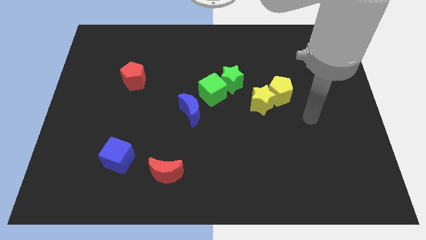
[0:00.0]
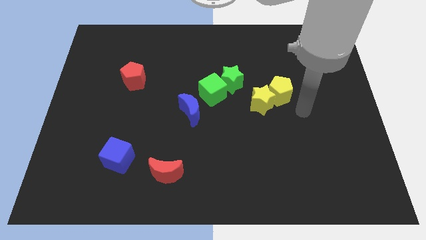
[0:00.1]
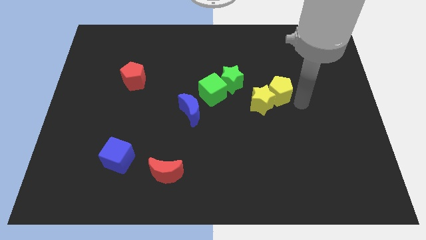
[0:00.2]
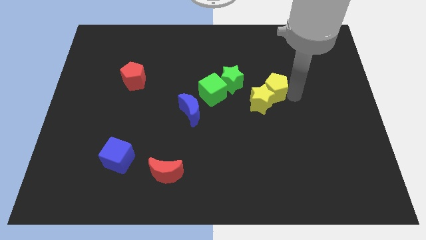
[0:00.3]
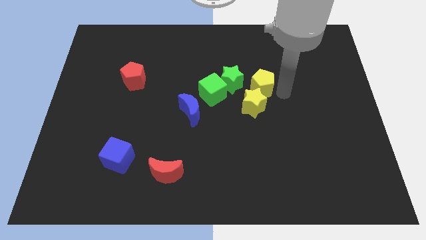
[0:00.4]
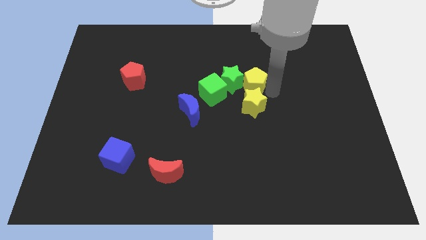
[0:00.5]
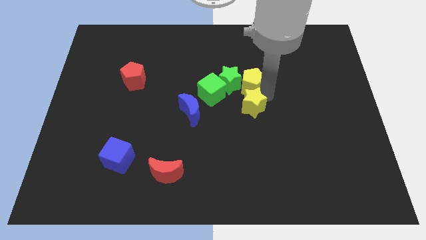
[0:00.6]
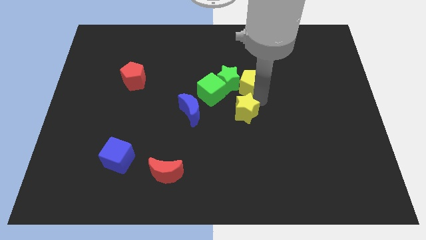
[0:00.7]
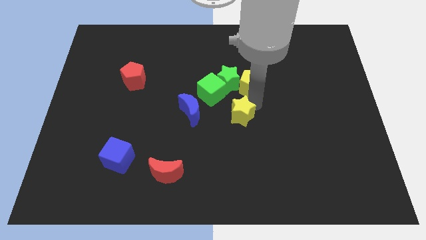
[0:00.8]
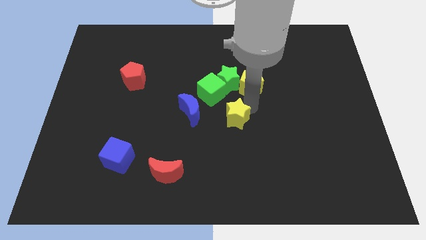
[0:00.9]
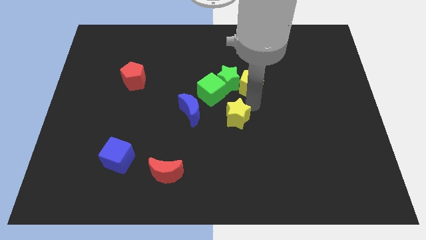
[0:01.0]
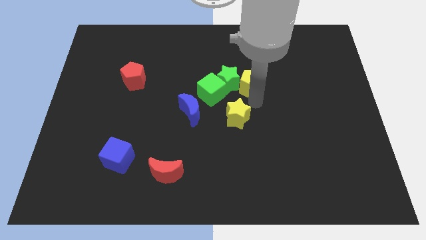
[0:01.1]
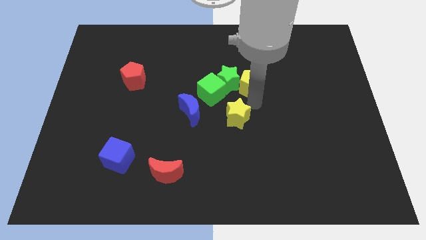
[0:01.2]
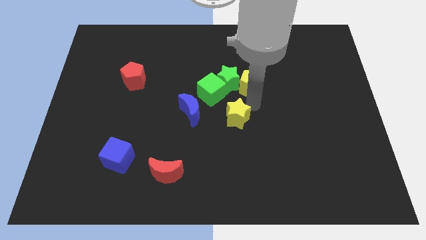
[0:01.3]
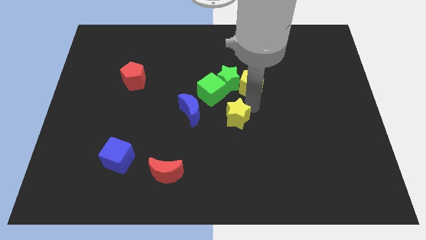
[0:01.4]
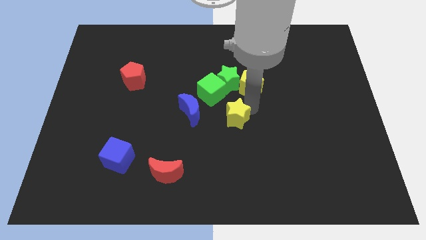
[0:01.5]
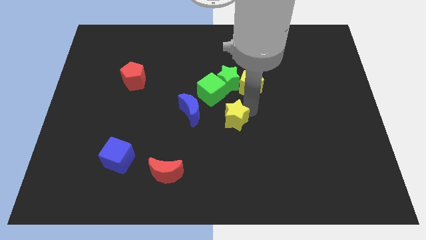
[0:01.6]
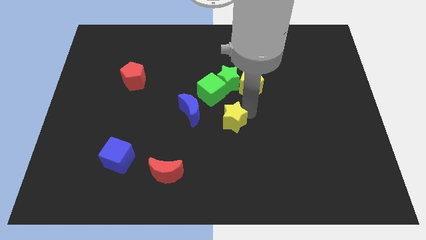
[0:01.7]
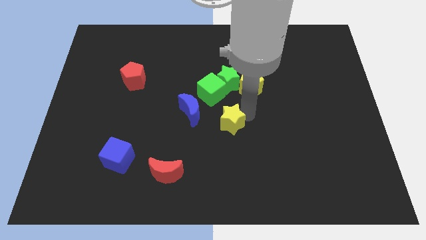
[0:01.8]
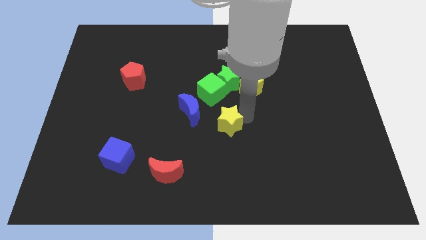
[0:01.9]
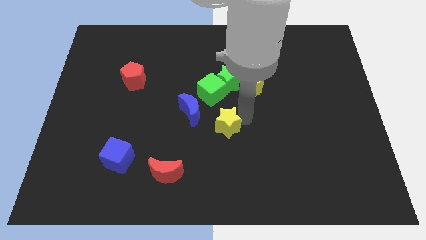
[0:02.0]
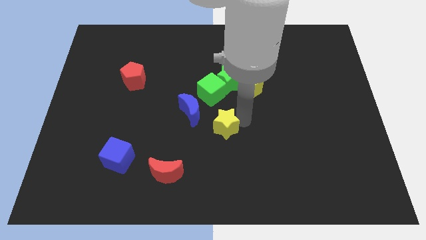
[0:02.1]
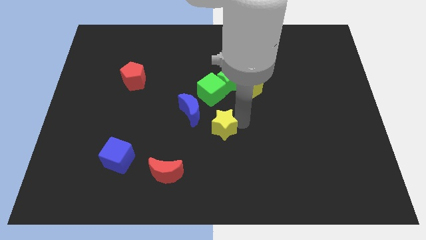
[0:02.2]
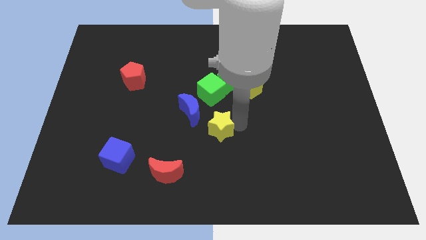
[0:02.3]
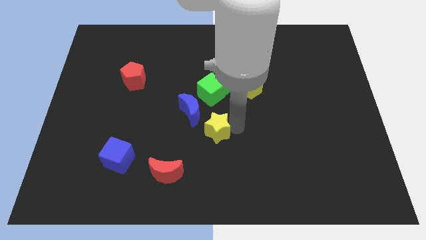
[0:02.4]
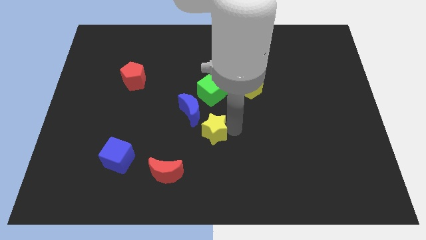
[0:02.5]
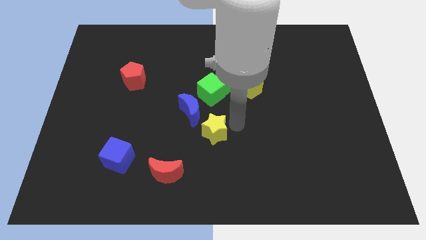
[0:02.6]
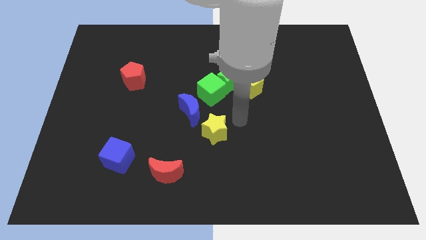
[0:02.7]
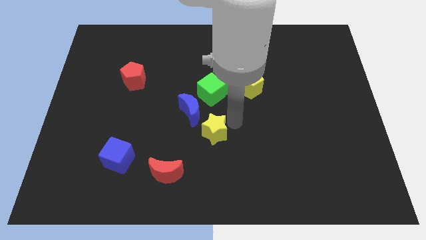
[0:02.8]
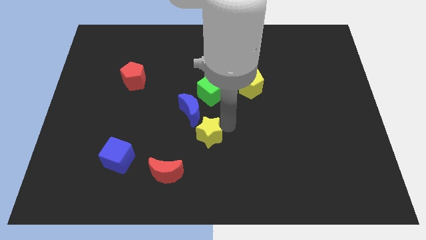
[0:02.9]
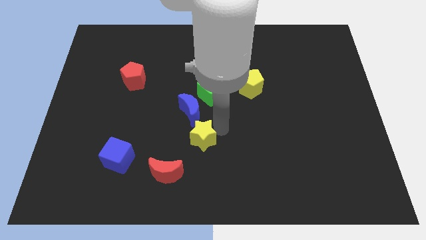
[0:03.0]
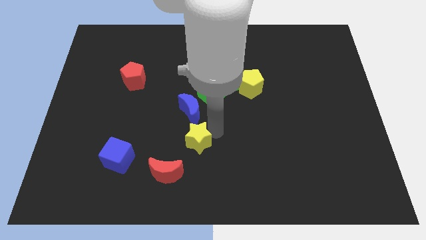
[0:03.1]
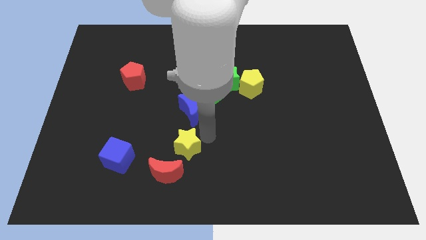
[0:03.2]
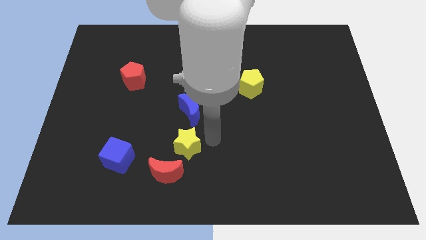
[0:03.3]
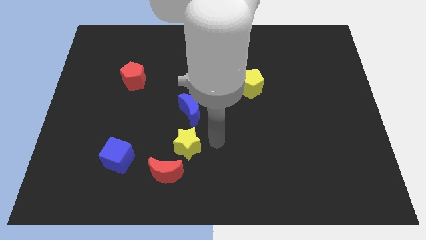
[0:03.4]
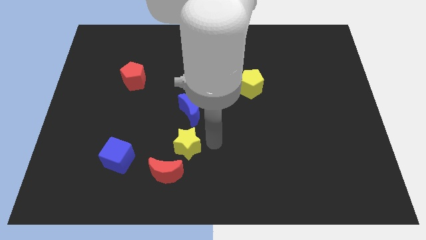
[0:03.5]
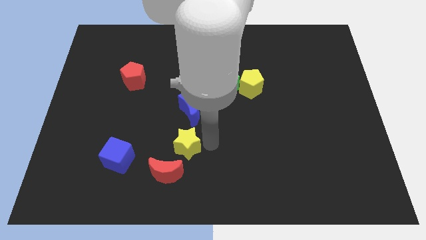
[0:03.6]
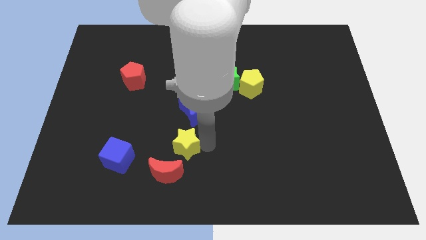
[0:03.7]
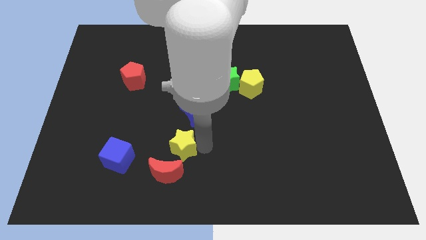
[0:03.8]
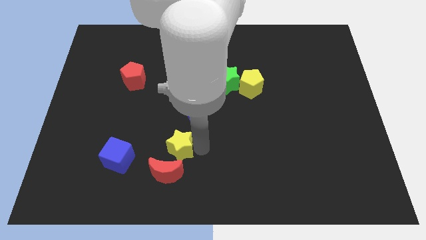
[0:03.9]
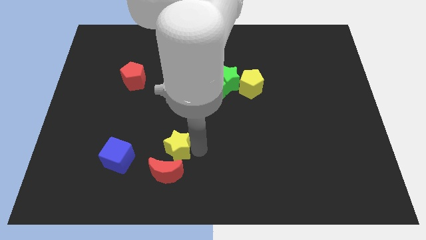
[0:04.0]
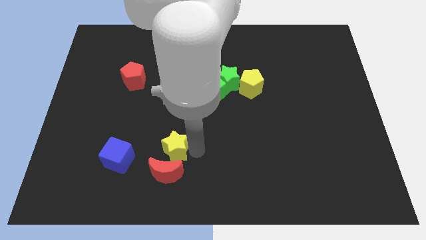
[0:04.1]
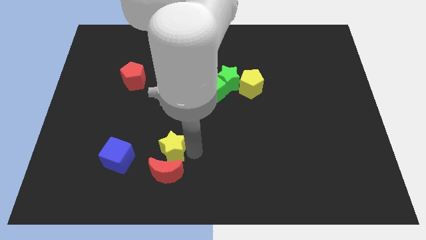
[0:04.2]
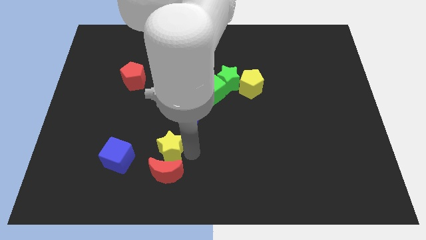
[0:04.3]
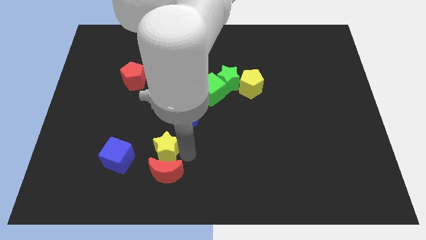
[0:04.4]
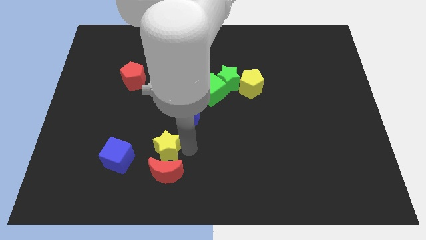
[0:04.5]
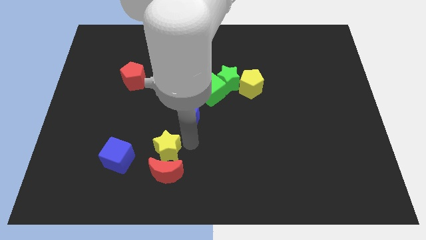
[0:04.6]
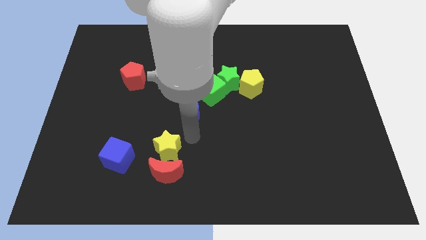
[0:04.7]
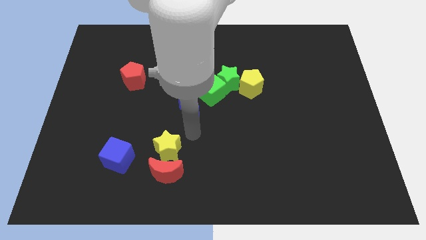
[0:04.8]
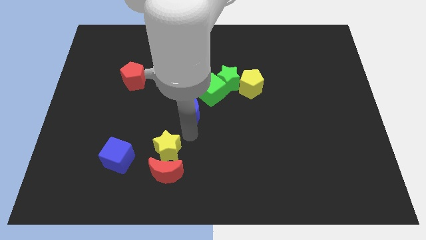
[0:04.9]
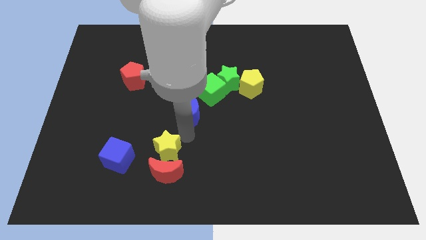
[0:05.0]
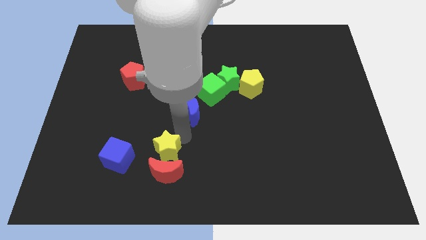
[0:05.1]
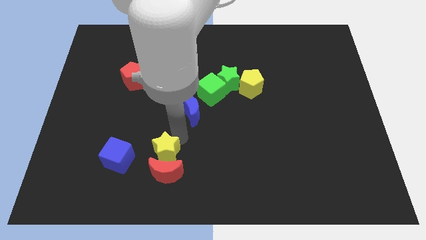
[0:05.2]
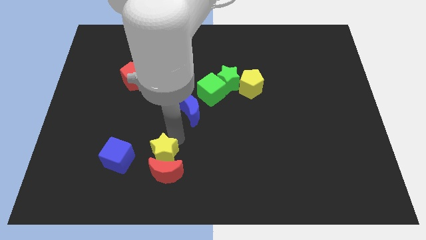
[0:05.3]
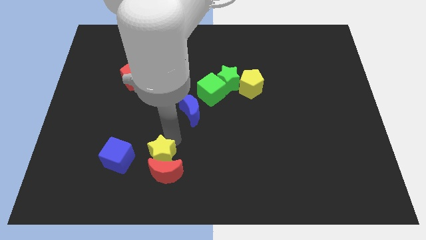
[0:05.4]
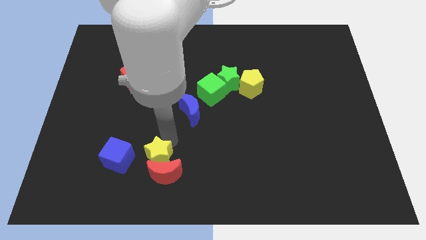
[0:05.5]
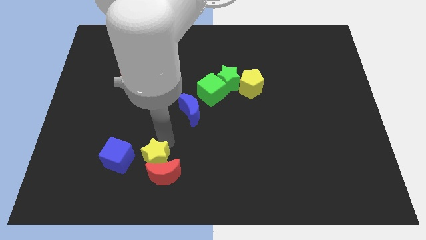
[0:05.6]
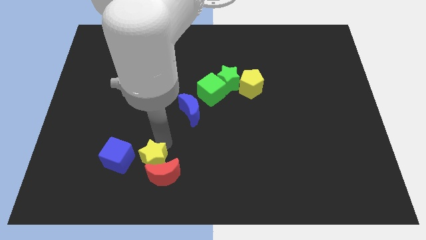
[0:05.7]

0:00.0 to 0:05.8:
slide the yellow star left of the red moon

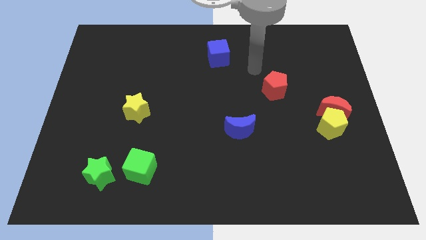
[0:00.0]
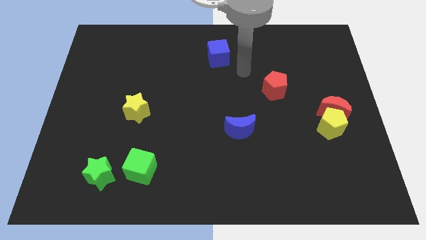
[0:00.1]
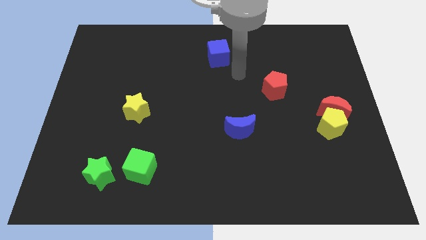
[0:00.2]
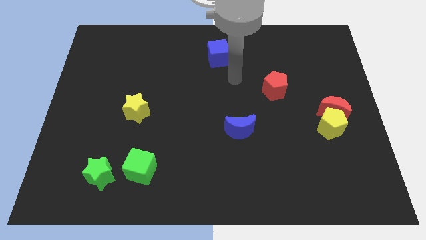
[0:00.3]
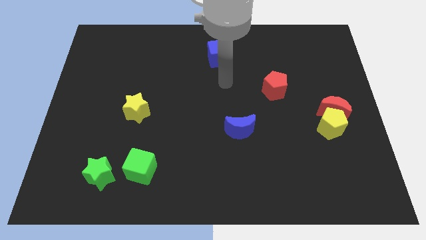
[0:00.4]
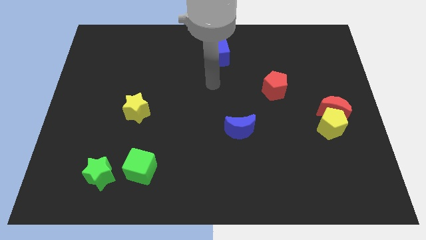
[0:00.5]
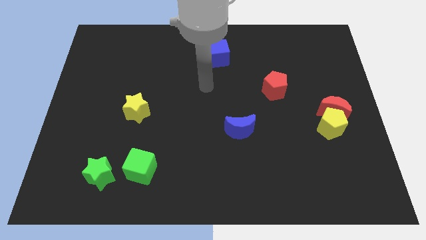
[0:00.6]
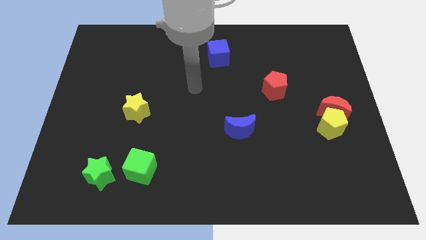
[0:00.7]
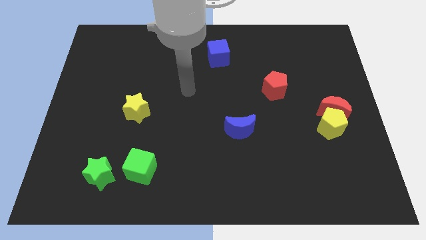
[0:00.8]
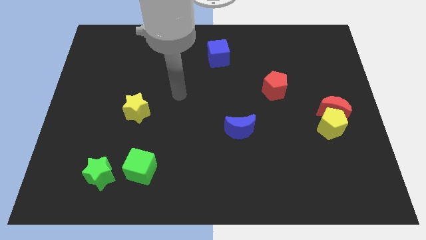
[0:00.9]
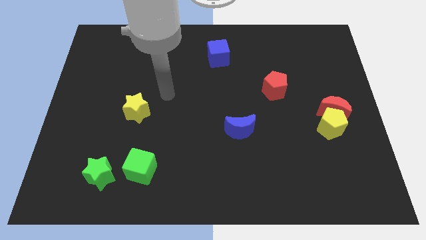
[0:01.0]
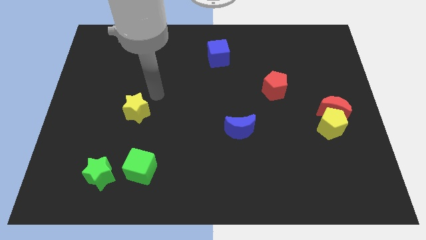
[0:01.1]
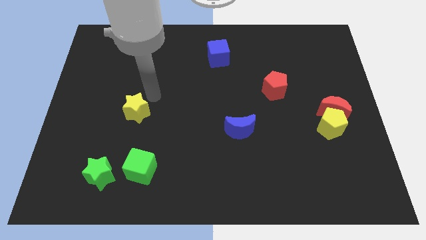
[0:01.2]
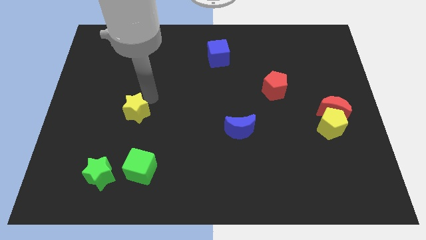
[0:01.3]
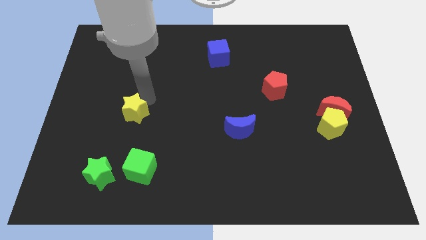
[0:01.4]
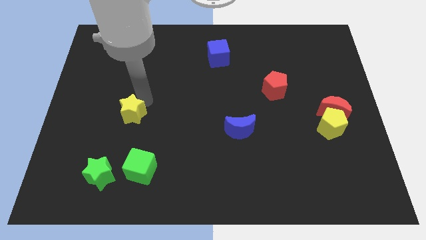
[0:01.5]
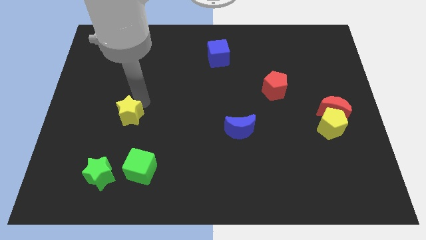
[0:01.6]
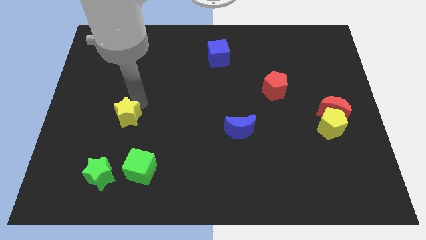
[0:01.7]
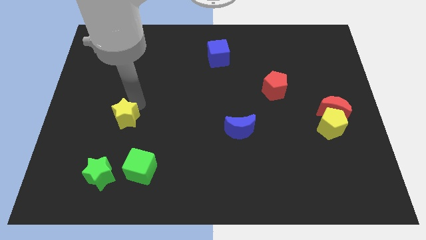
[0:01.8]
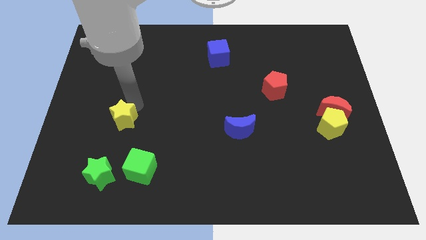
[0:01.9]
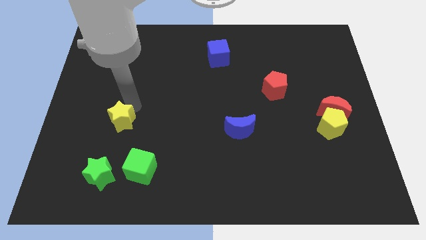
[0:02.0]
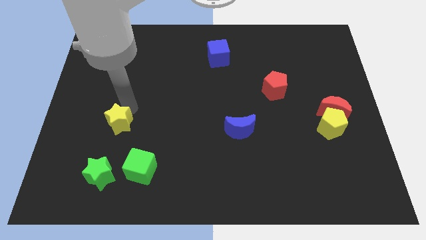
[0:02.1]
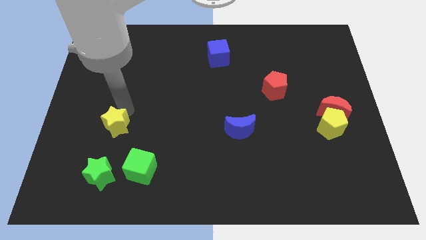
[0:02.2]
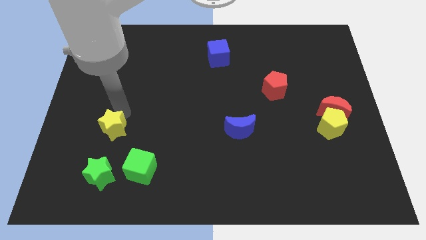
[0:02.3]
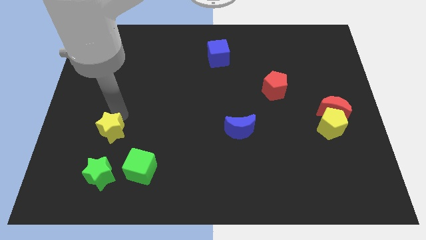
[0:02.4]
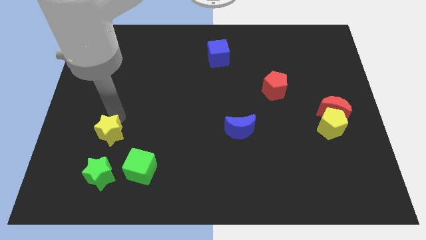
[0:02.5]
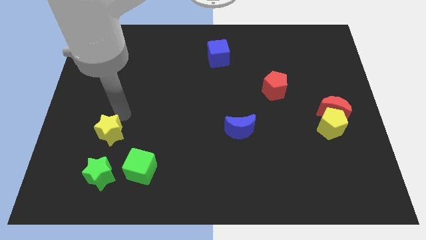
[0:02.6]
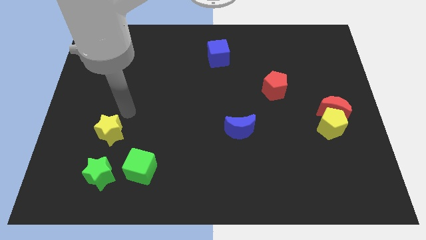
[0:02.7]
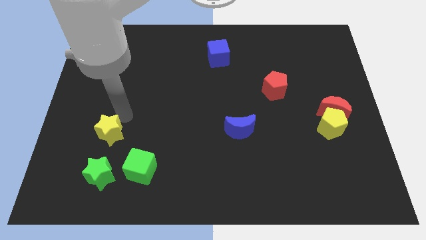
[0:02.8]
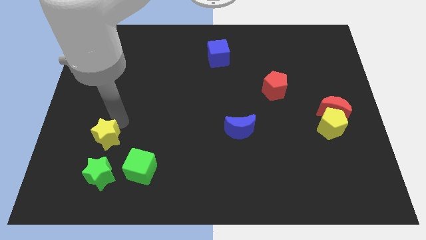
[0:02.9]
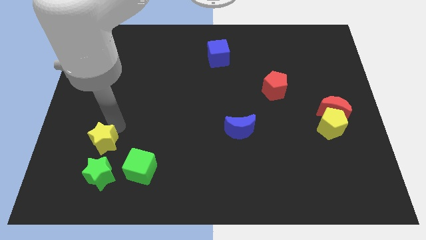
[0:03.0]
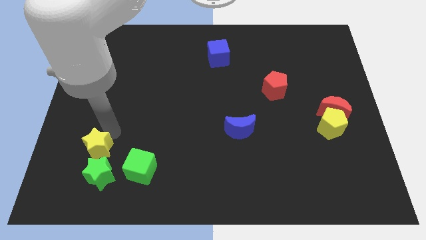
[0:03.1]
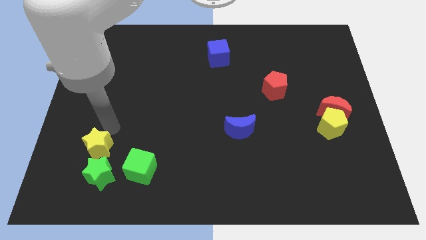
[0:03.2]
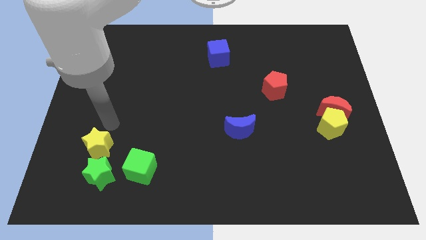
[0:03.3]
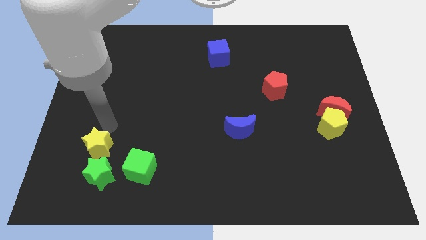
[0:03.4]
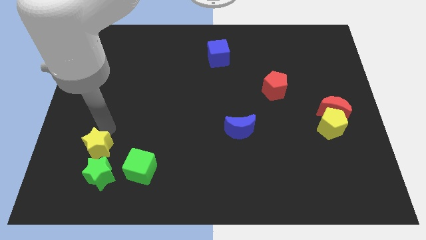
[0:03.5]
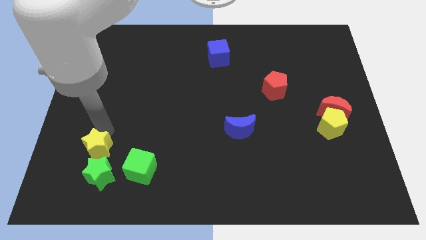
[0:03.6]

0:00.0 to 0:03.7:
push the yellow star to the left of the green cube
